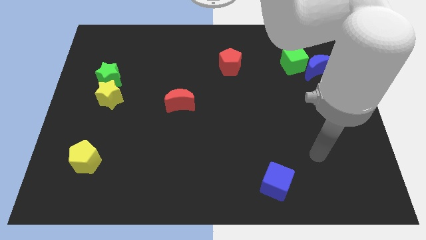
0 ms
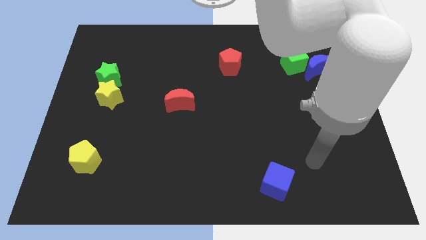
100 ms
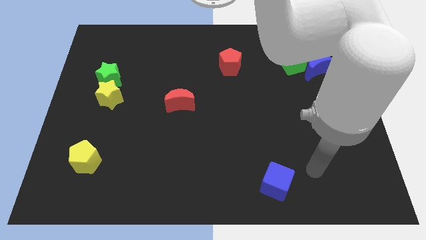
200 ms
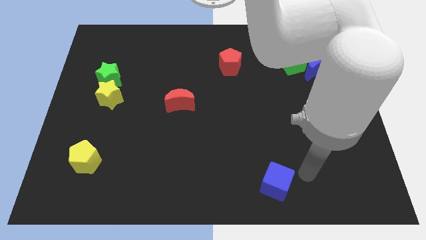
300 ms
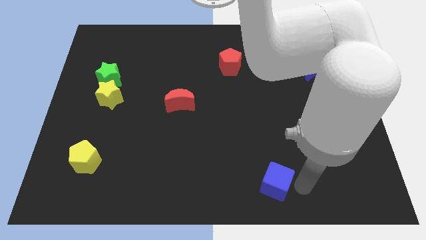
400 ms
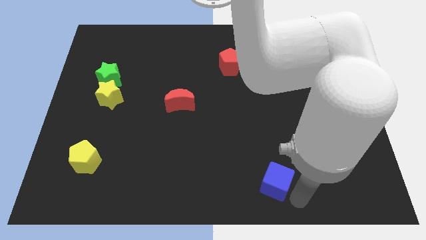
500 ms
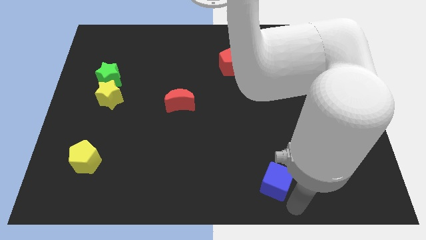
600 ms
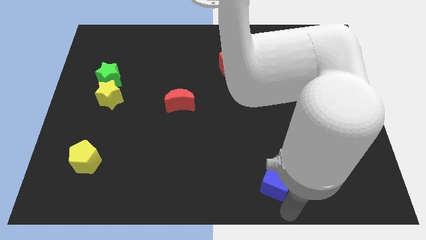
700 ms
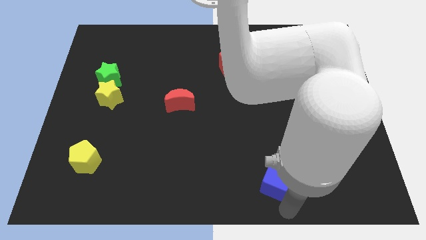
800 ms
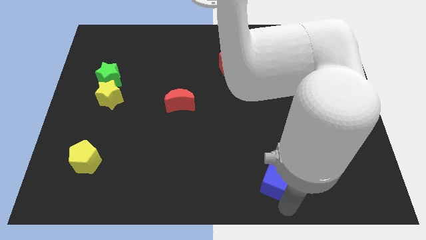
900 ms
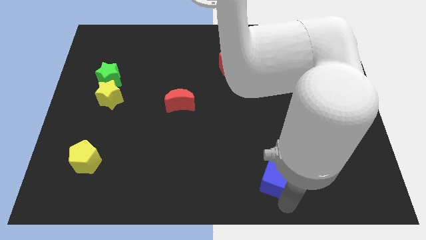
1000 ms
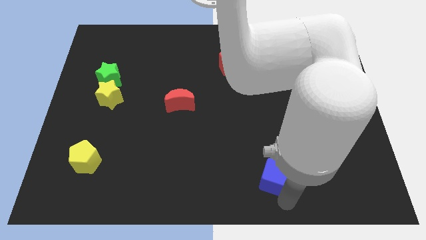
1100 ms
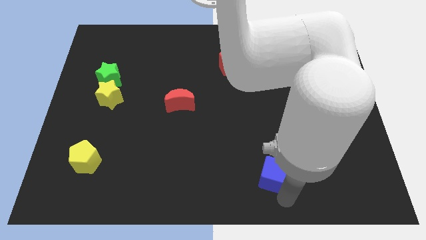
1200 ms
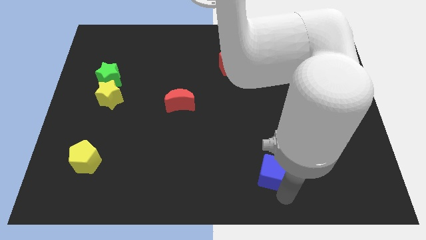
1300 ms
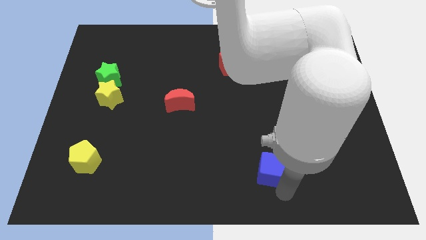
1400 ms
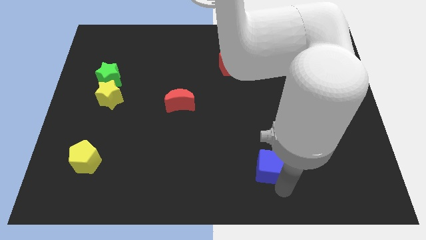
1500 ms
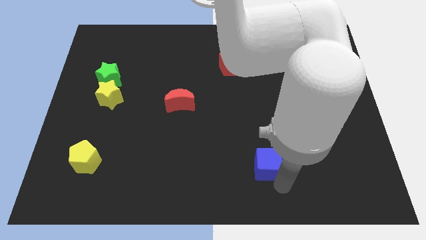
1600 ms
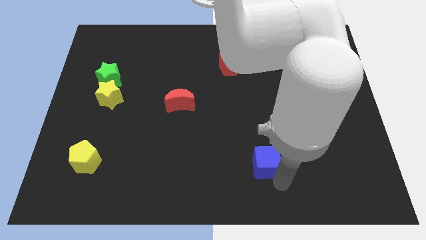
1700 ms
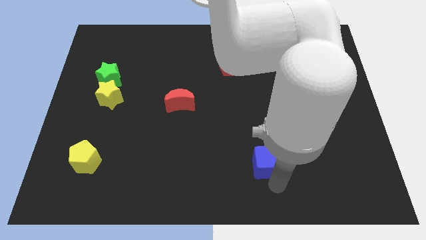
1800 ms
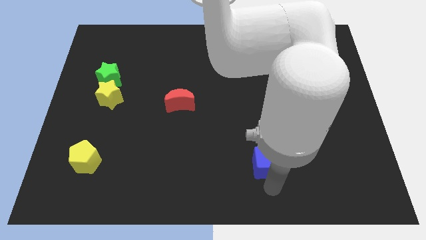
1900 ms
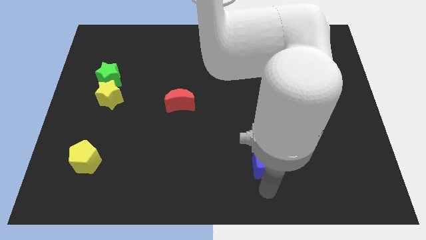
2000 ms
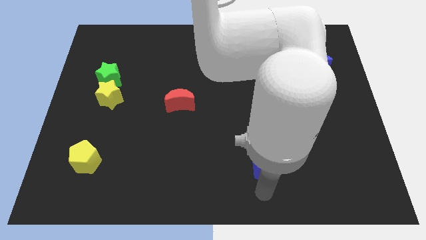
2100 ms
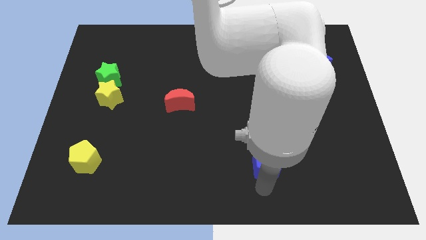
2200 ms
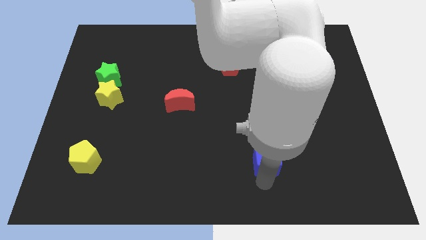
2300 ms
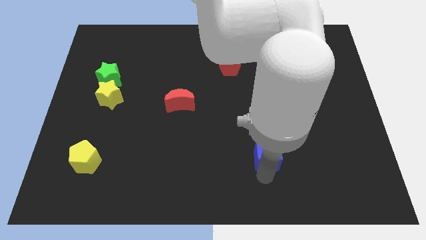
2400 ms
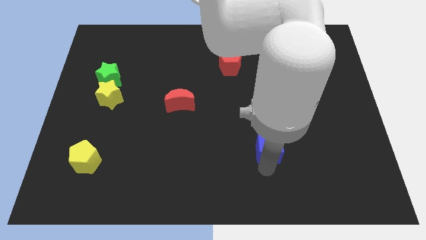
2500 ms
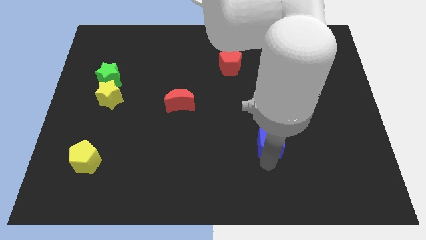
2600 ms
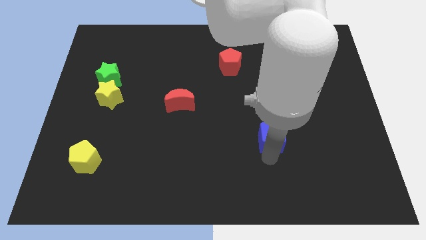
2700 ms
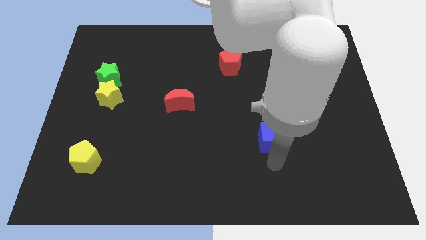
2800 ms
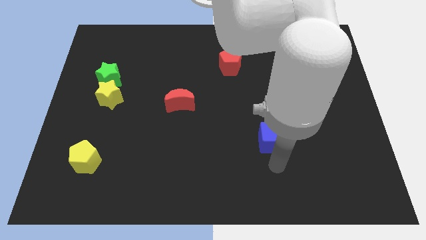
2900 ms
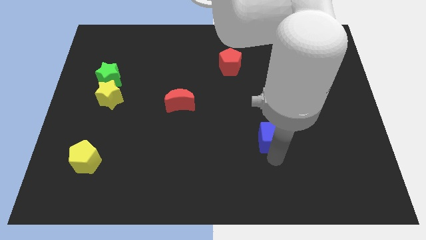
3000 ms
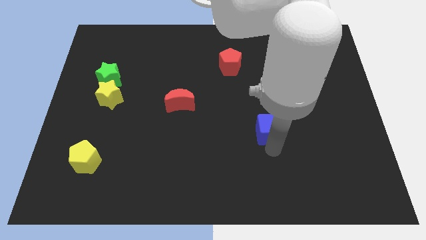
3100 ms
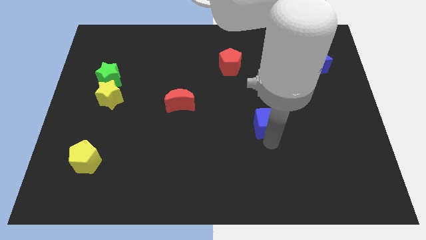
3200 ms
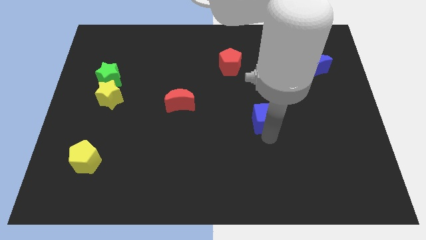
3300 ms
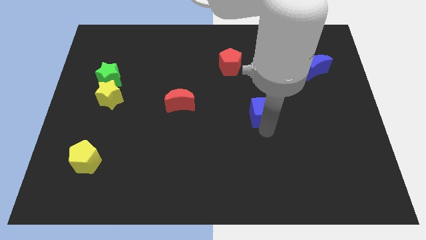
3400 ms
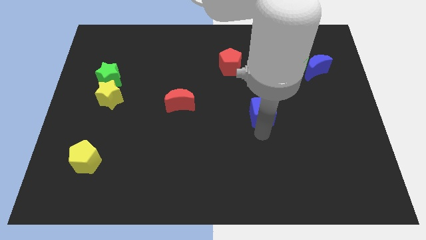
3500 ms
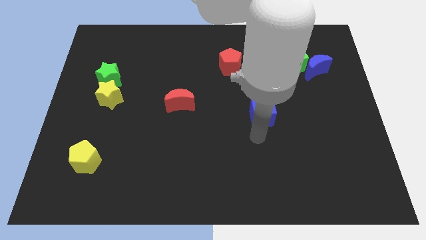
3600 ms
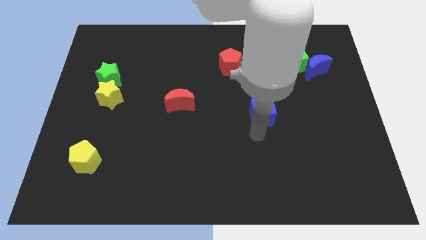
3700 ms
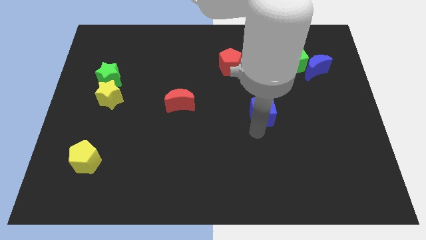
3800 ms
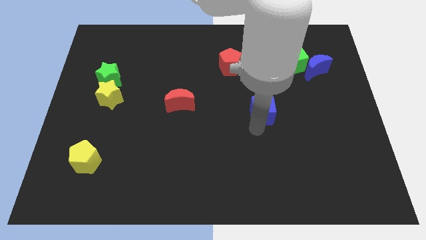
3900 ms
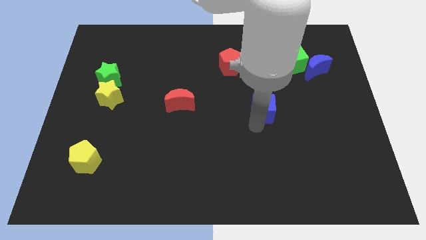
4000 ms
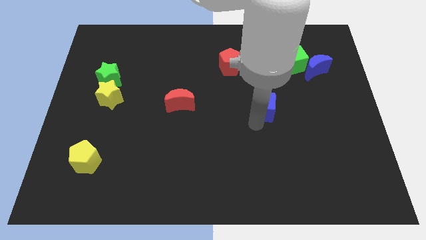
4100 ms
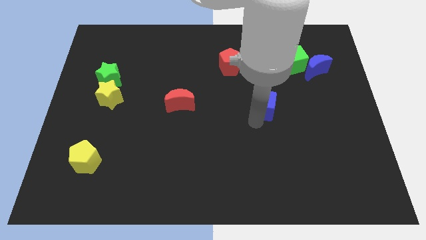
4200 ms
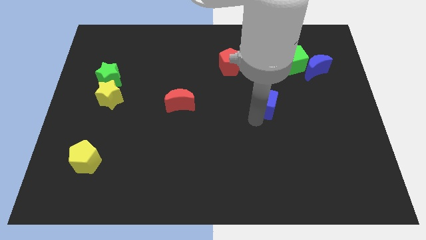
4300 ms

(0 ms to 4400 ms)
move the blue cube upwards

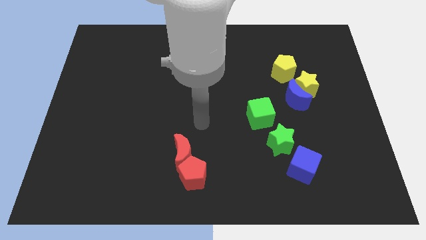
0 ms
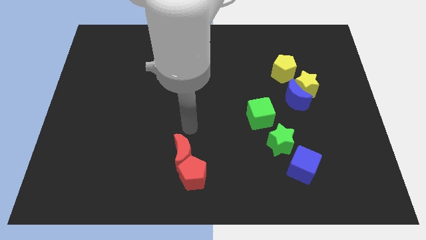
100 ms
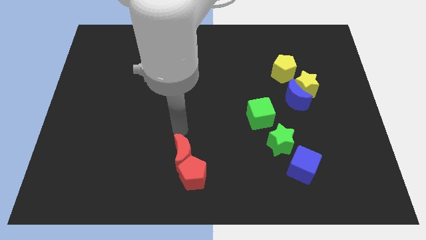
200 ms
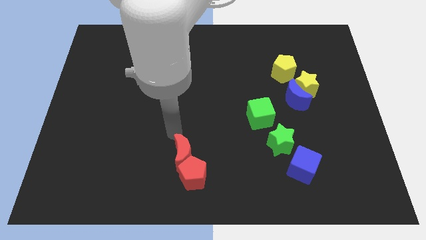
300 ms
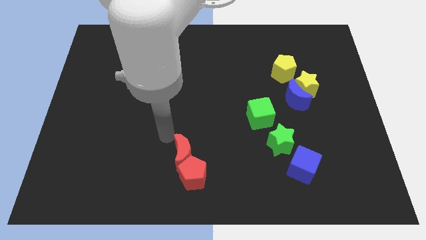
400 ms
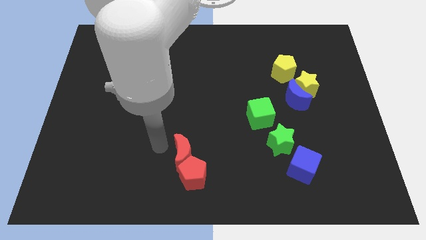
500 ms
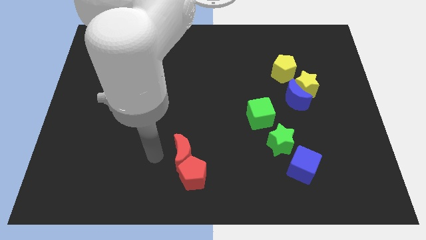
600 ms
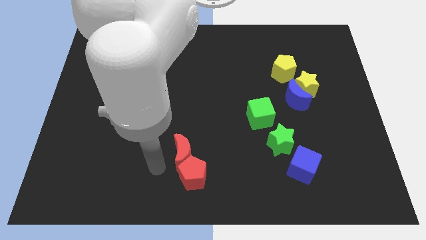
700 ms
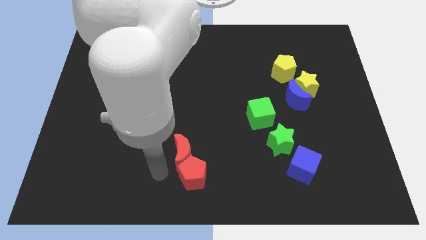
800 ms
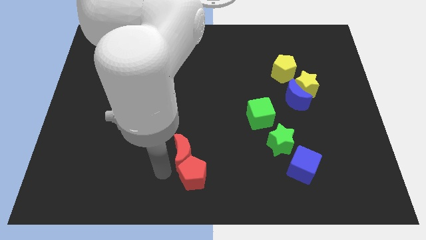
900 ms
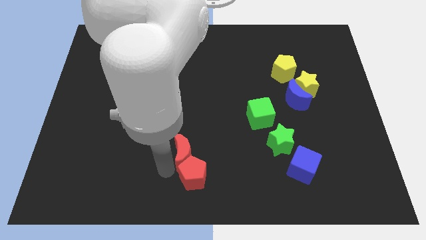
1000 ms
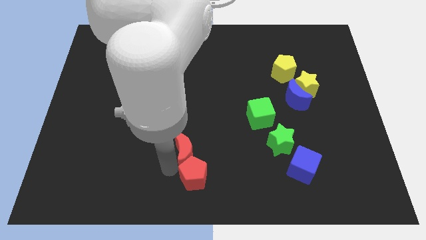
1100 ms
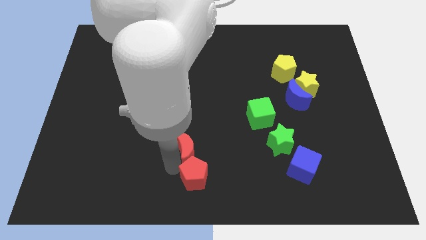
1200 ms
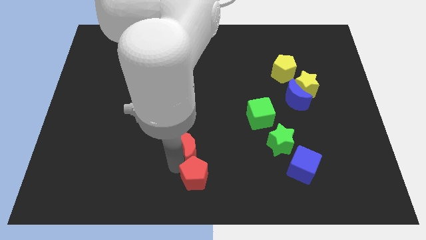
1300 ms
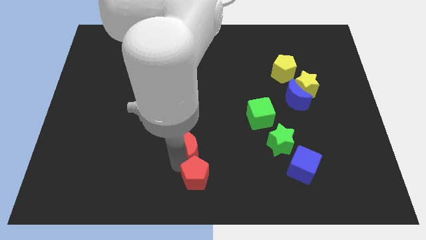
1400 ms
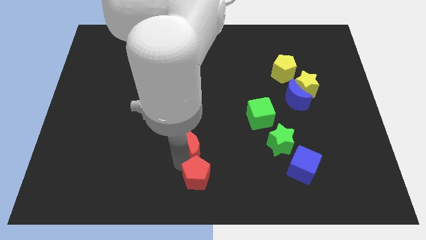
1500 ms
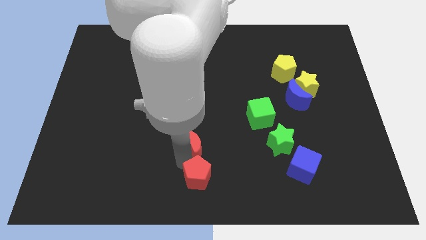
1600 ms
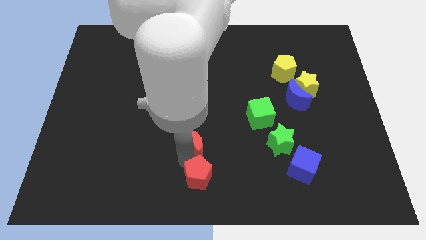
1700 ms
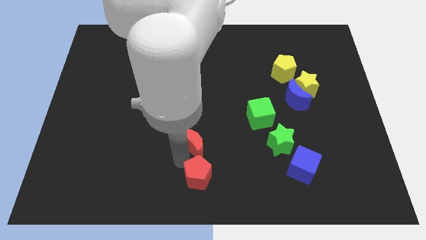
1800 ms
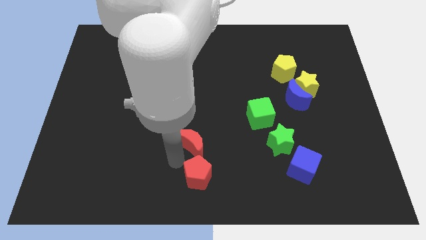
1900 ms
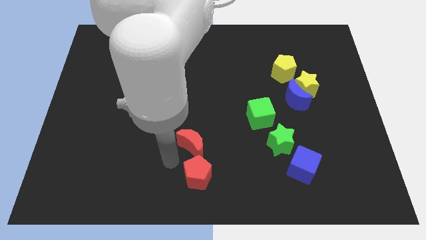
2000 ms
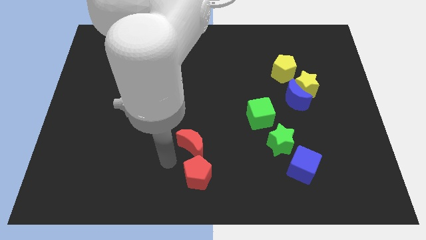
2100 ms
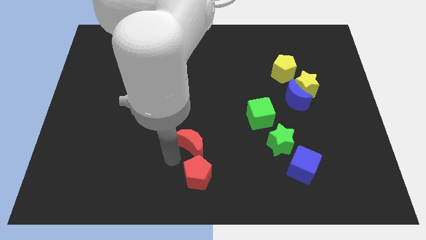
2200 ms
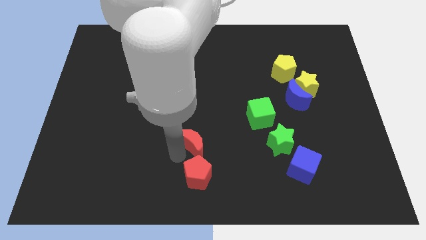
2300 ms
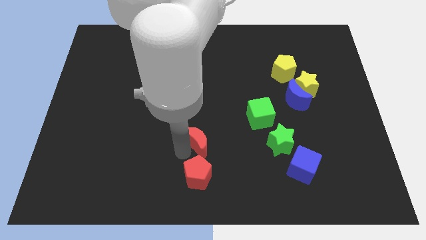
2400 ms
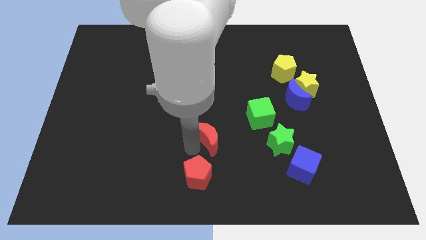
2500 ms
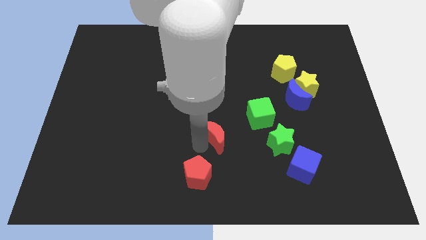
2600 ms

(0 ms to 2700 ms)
slide the red moon upwards and to the right diagonally slightly

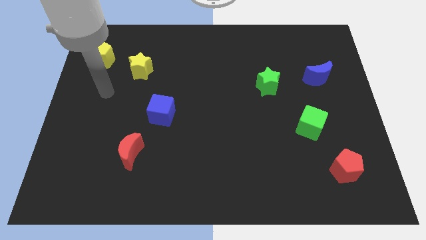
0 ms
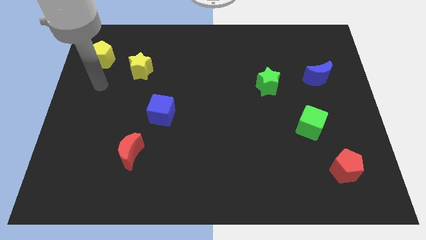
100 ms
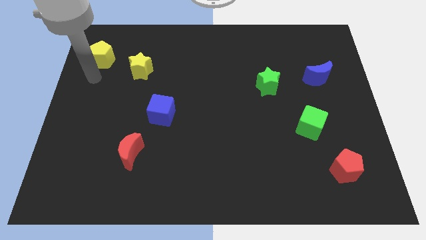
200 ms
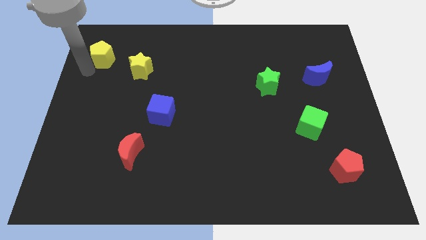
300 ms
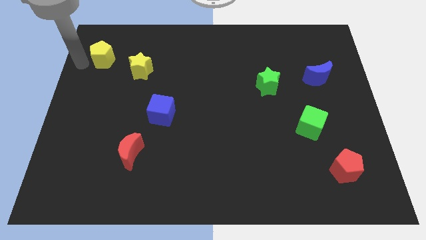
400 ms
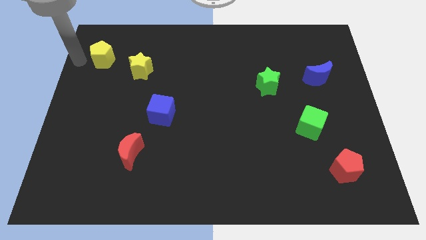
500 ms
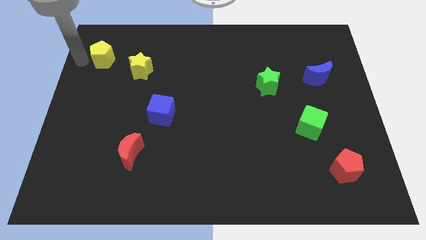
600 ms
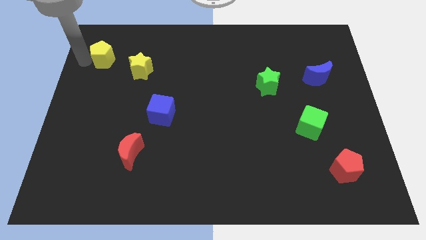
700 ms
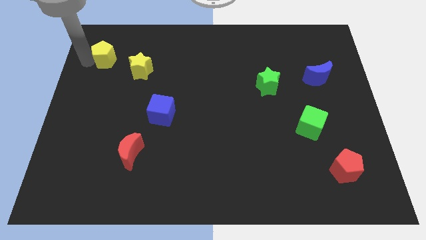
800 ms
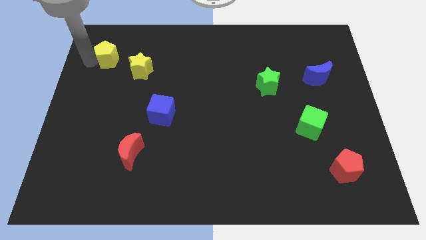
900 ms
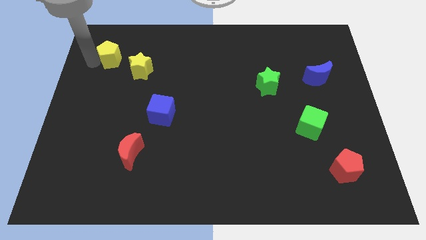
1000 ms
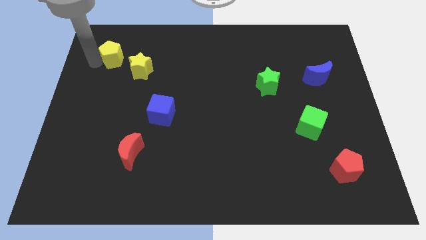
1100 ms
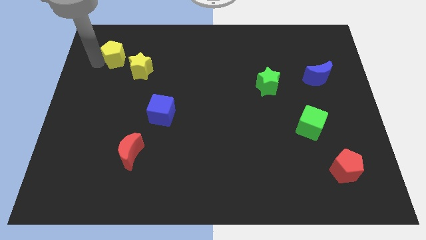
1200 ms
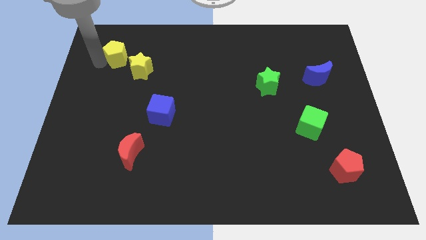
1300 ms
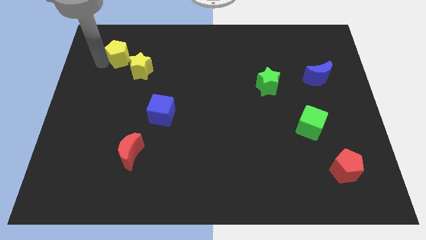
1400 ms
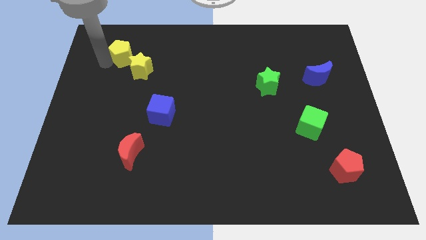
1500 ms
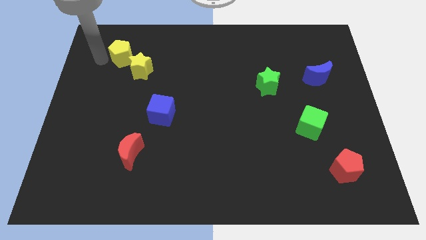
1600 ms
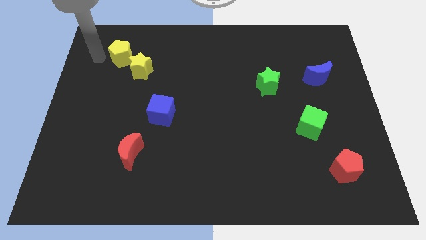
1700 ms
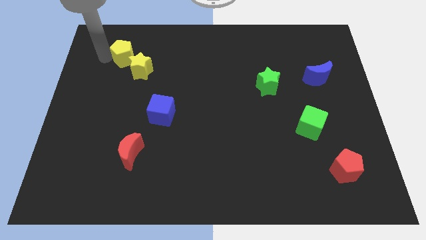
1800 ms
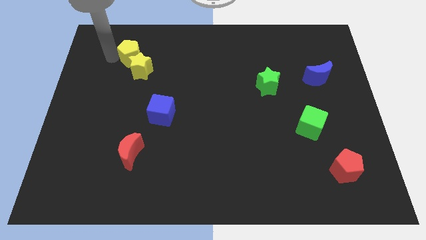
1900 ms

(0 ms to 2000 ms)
move the yellow pentagon right a little
